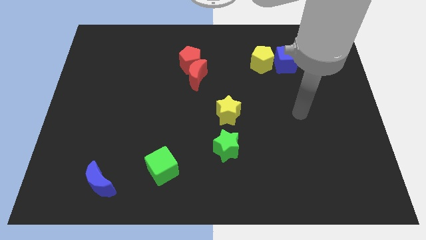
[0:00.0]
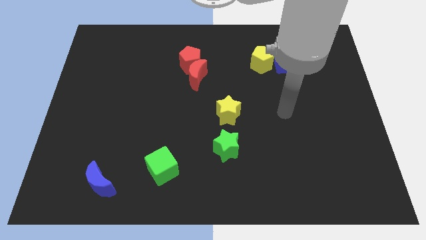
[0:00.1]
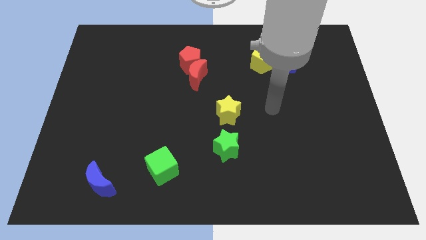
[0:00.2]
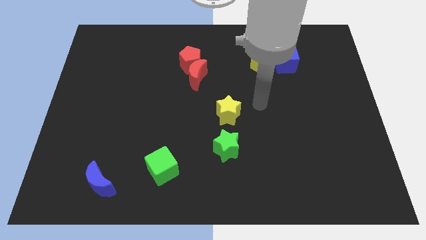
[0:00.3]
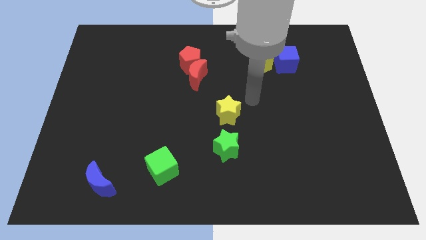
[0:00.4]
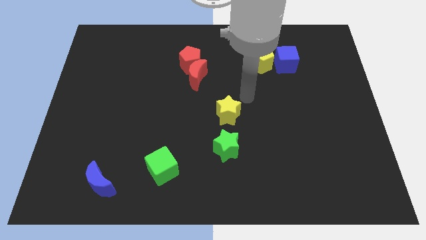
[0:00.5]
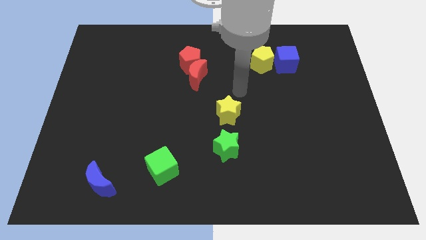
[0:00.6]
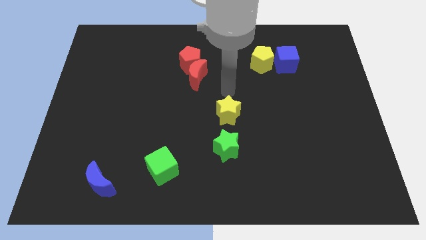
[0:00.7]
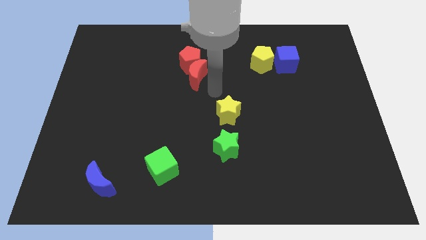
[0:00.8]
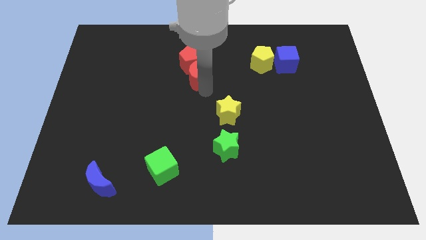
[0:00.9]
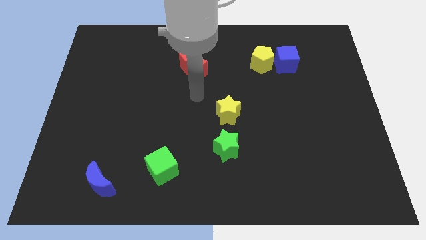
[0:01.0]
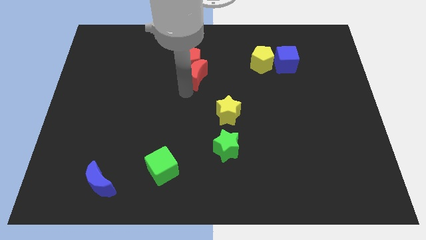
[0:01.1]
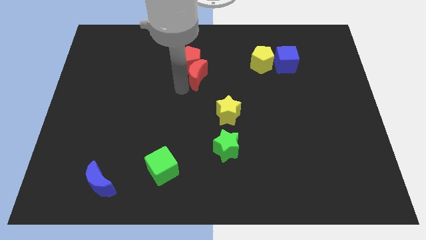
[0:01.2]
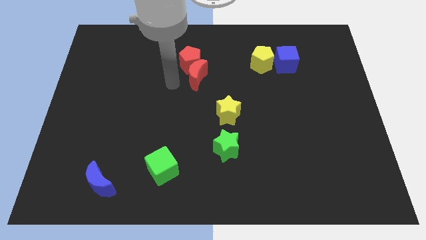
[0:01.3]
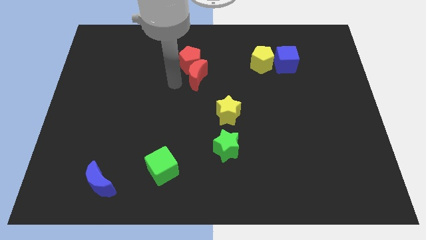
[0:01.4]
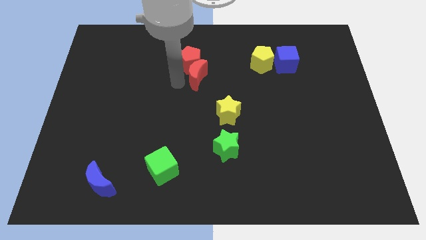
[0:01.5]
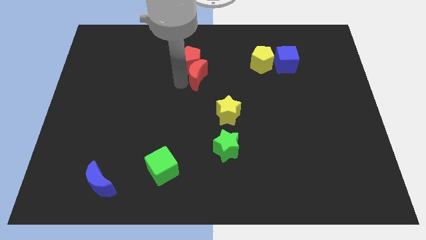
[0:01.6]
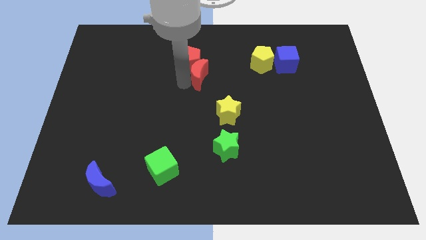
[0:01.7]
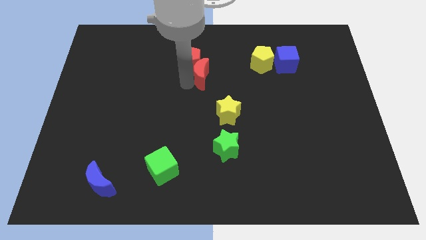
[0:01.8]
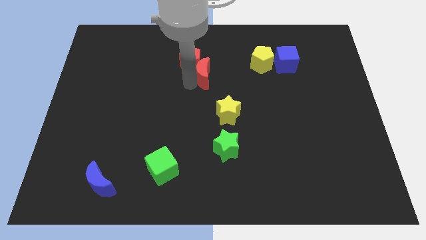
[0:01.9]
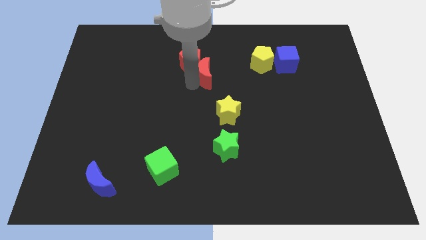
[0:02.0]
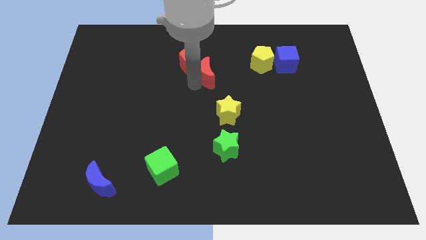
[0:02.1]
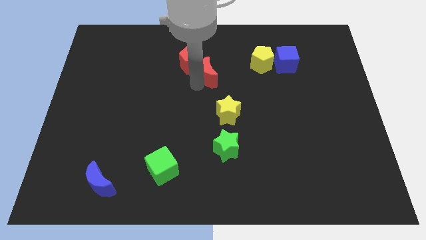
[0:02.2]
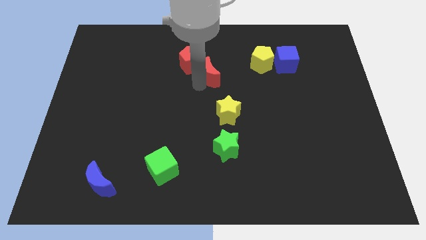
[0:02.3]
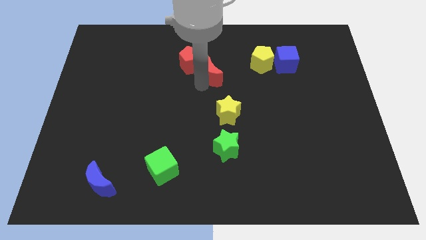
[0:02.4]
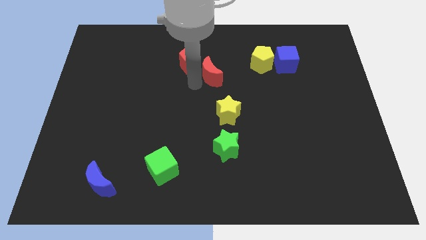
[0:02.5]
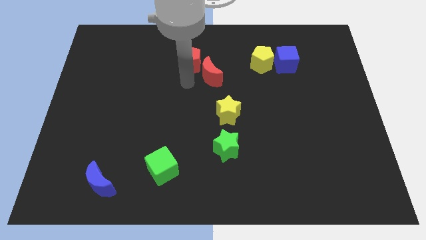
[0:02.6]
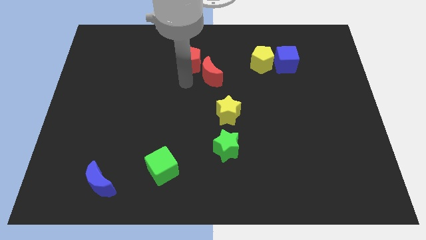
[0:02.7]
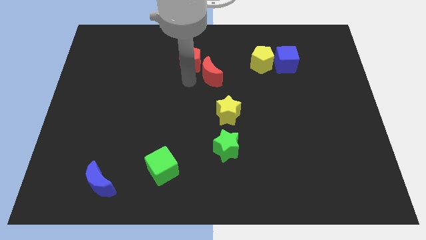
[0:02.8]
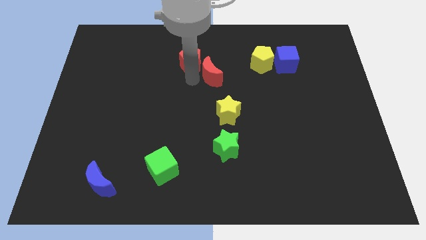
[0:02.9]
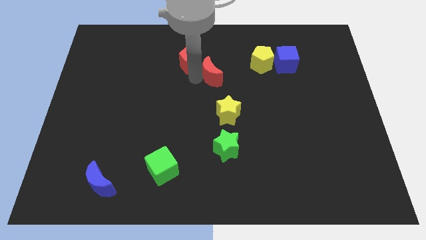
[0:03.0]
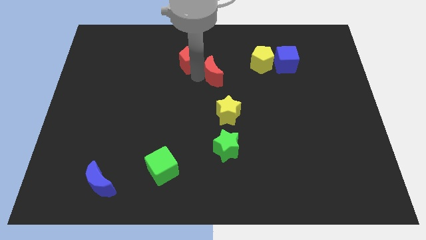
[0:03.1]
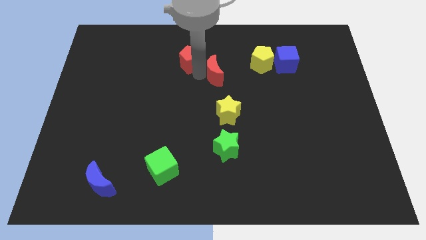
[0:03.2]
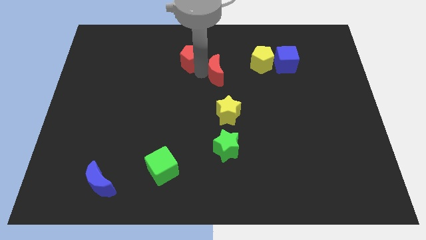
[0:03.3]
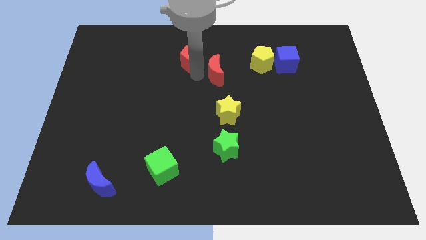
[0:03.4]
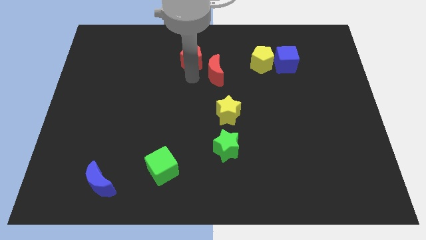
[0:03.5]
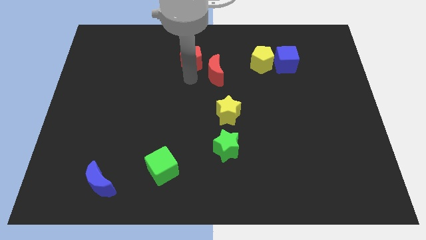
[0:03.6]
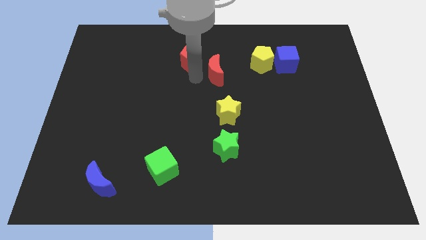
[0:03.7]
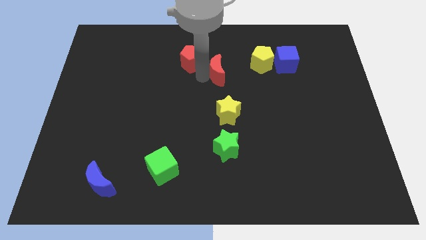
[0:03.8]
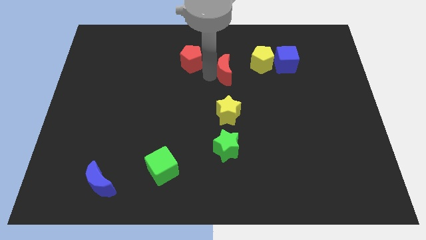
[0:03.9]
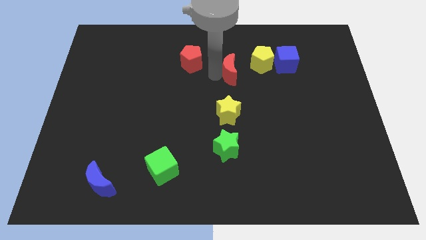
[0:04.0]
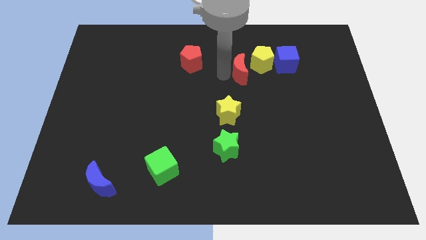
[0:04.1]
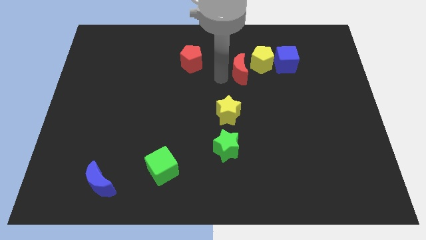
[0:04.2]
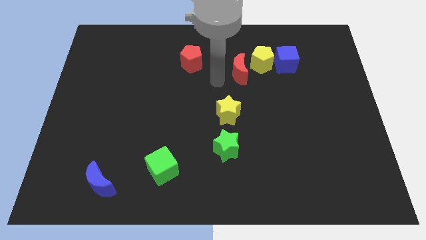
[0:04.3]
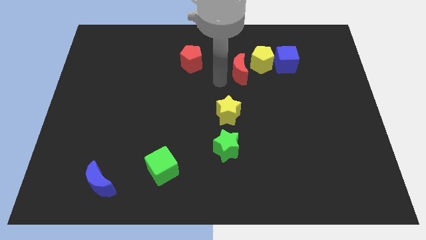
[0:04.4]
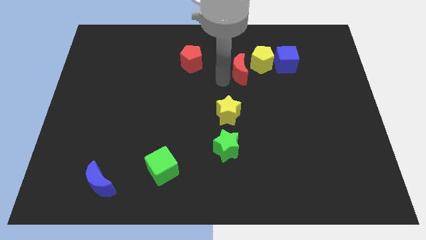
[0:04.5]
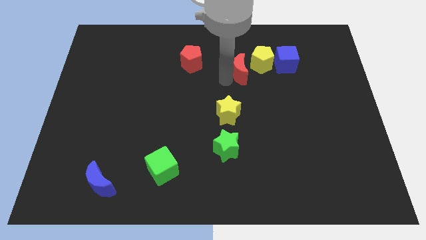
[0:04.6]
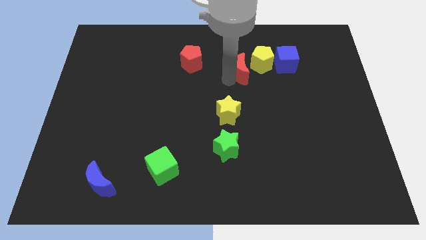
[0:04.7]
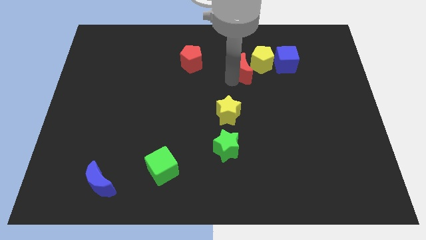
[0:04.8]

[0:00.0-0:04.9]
push the red moon towards the yellow pentagon

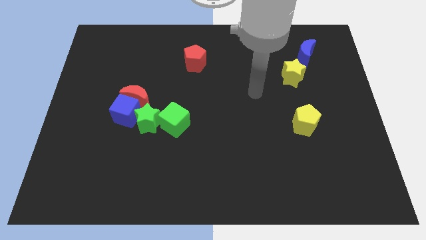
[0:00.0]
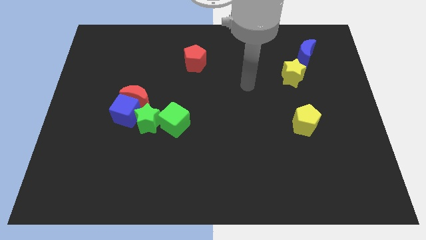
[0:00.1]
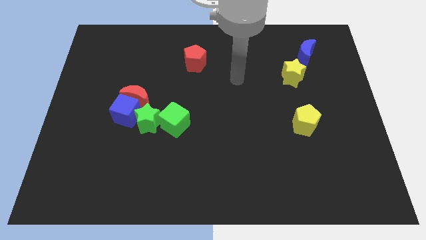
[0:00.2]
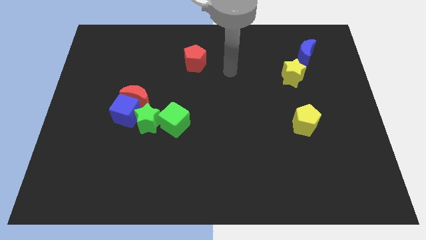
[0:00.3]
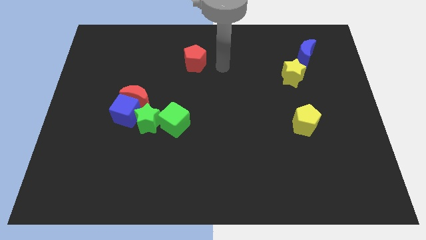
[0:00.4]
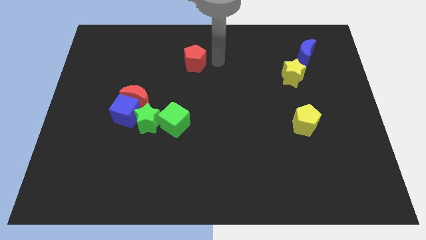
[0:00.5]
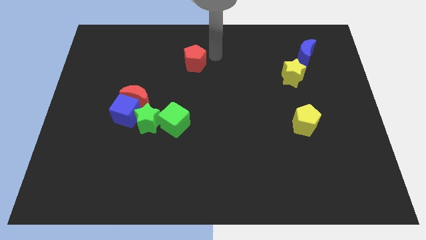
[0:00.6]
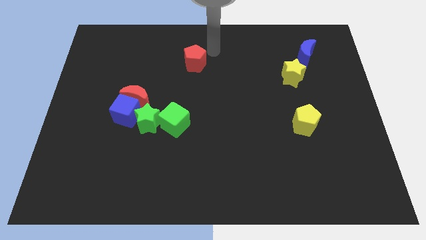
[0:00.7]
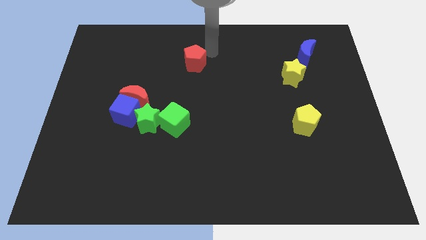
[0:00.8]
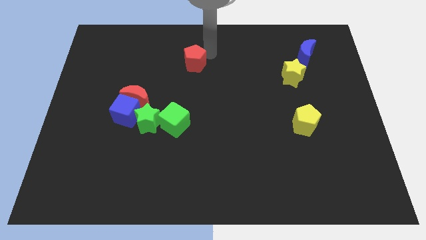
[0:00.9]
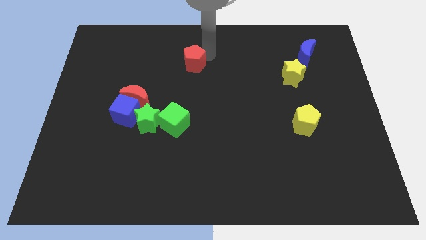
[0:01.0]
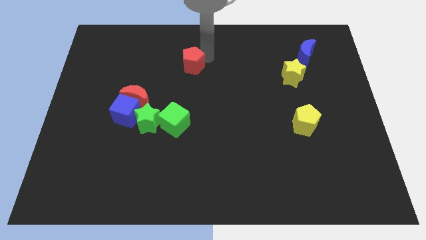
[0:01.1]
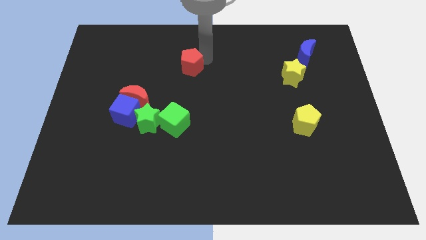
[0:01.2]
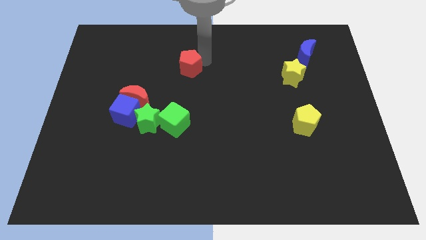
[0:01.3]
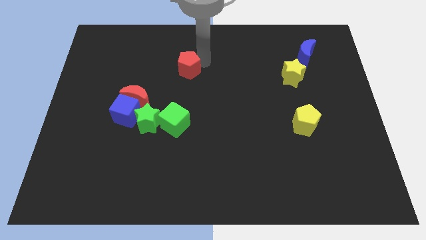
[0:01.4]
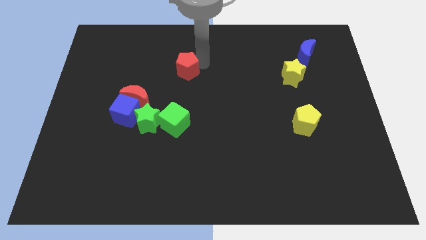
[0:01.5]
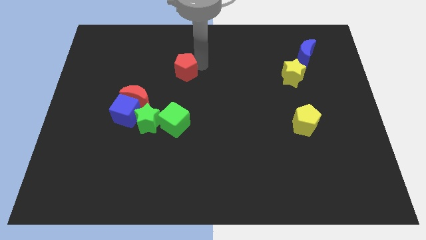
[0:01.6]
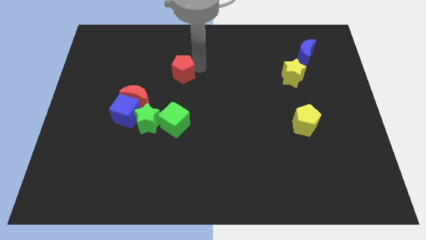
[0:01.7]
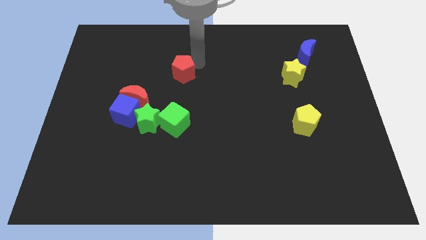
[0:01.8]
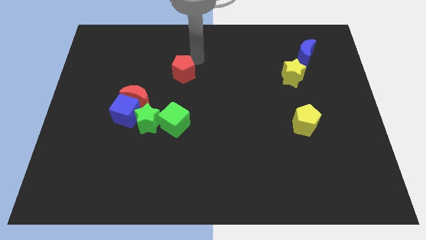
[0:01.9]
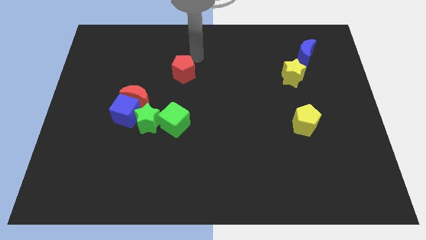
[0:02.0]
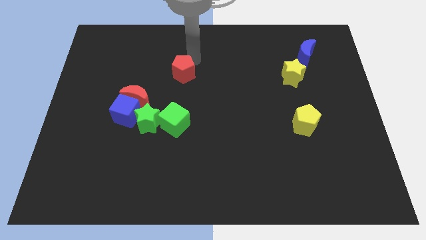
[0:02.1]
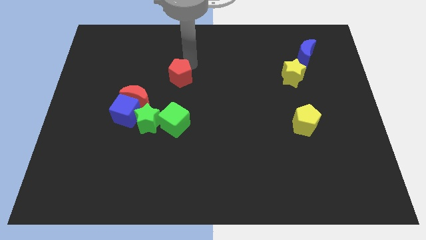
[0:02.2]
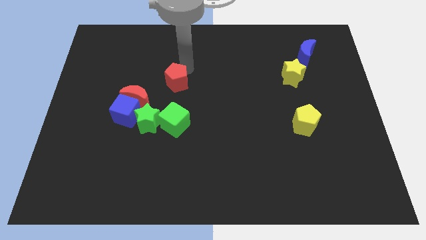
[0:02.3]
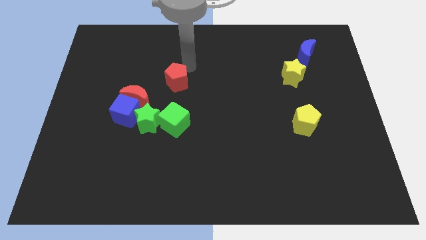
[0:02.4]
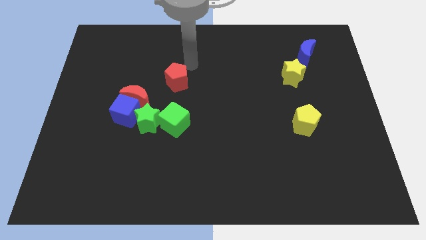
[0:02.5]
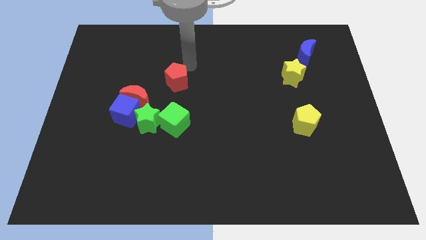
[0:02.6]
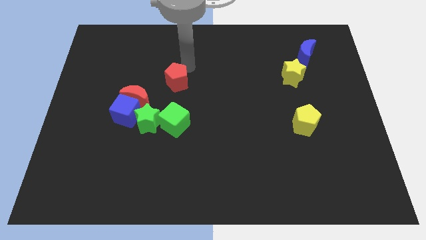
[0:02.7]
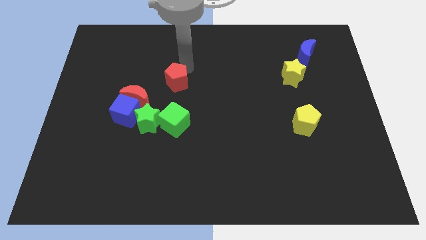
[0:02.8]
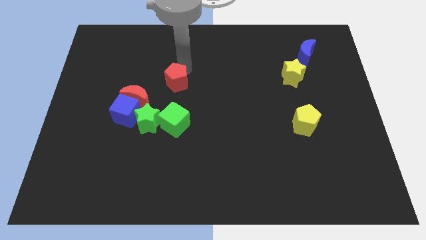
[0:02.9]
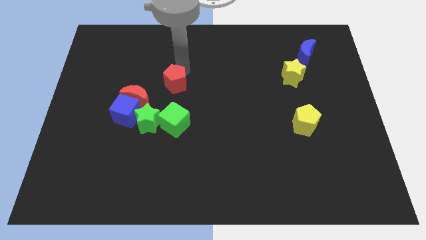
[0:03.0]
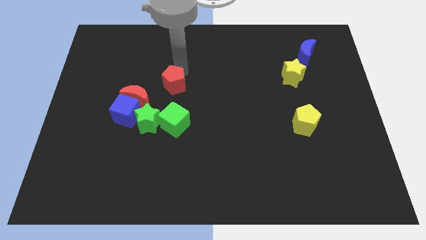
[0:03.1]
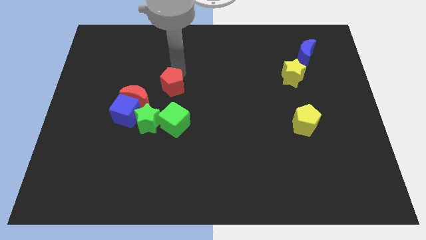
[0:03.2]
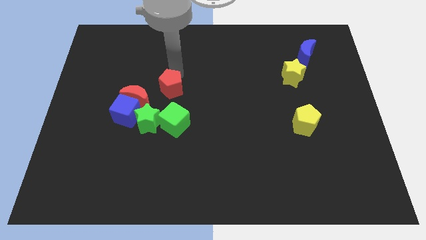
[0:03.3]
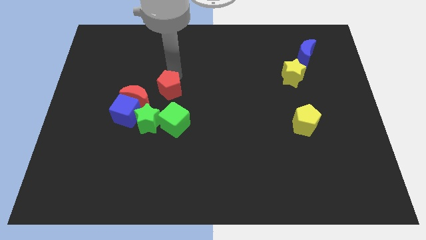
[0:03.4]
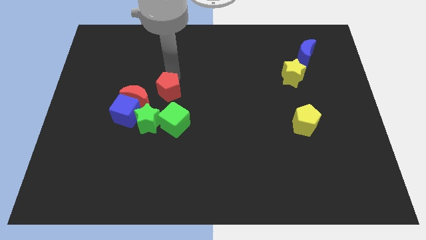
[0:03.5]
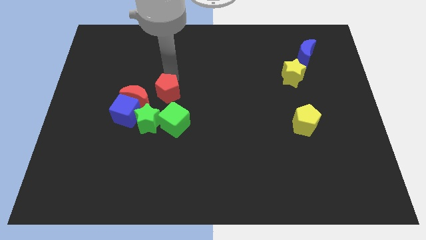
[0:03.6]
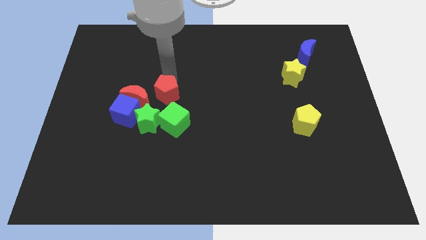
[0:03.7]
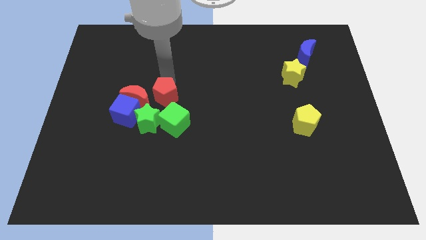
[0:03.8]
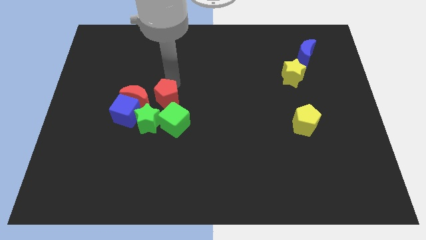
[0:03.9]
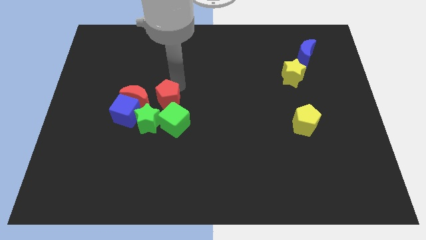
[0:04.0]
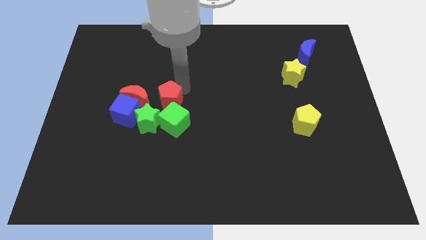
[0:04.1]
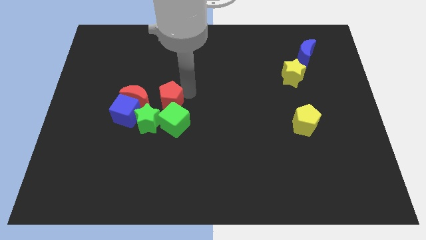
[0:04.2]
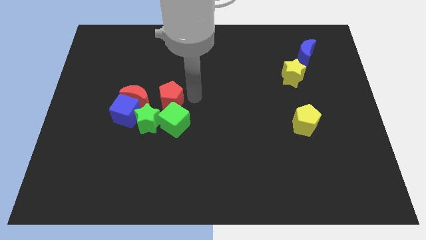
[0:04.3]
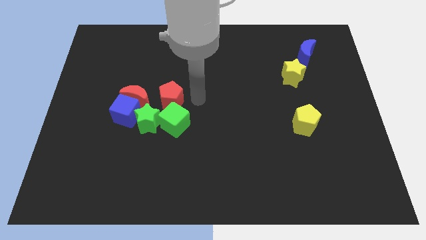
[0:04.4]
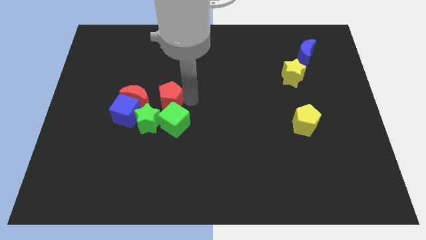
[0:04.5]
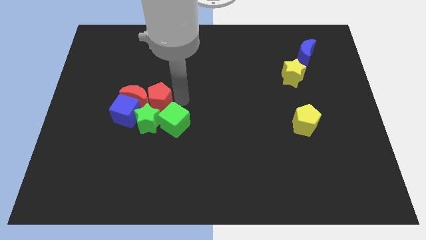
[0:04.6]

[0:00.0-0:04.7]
slide the red pentagon close to the red moon
